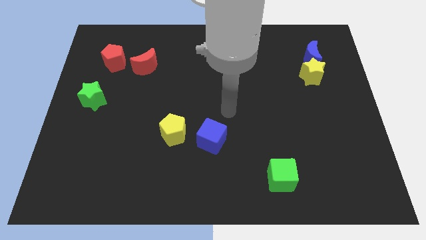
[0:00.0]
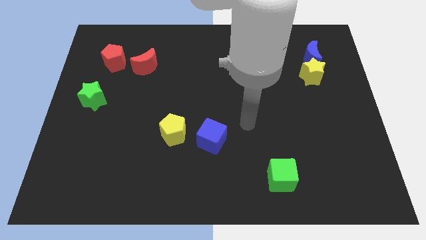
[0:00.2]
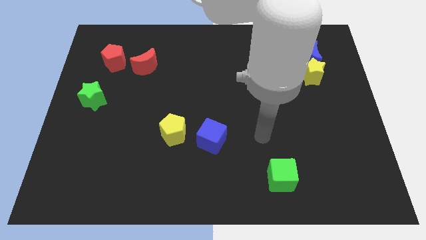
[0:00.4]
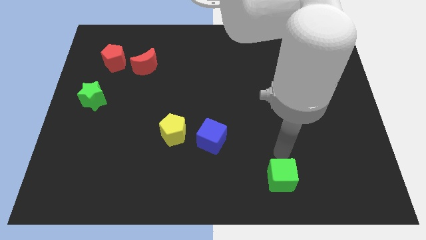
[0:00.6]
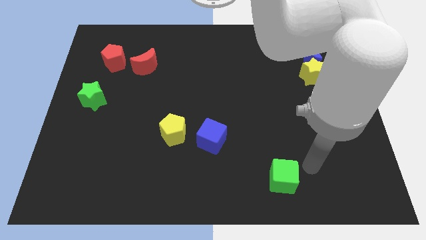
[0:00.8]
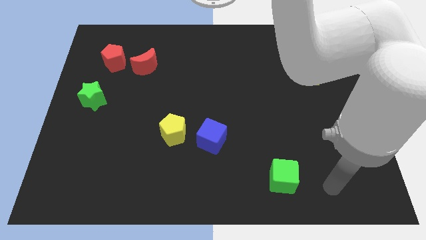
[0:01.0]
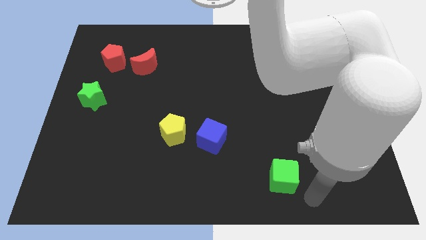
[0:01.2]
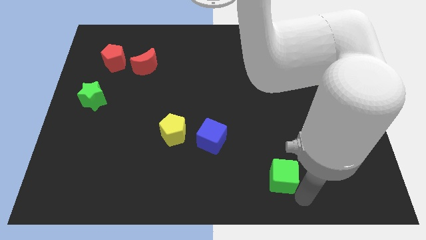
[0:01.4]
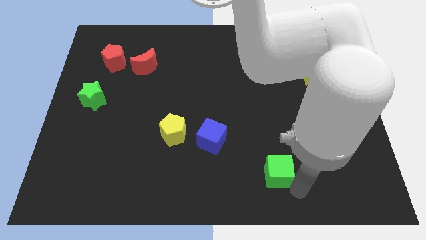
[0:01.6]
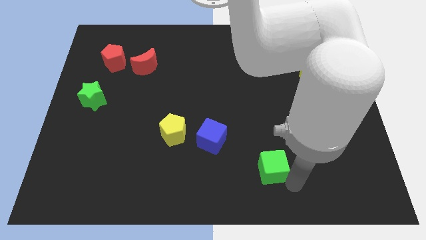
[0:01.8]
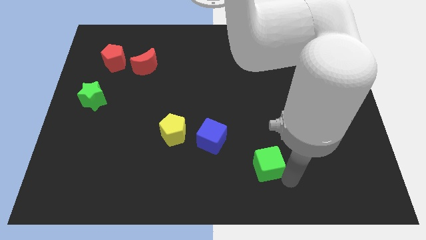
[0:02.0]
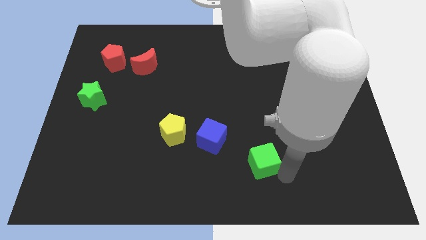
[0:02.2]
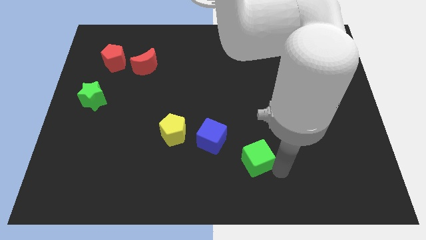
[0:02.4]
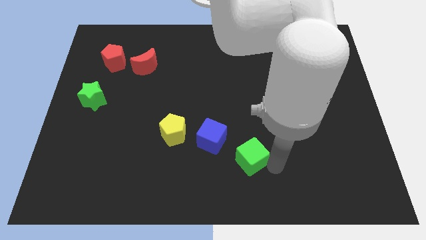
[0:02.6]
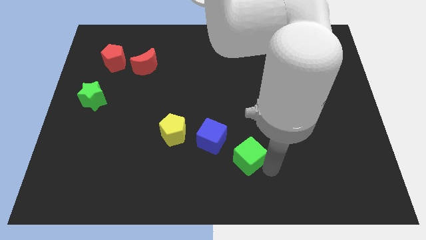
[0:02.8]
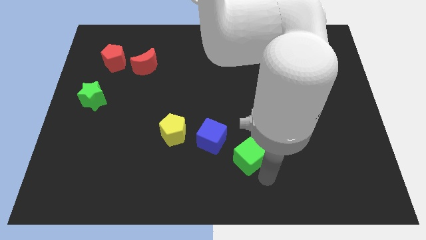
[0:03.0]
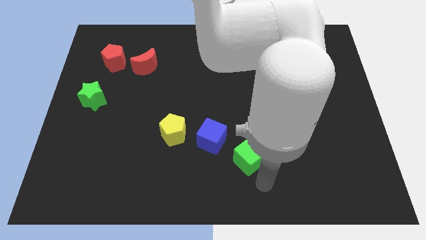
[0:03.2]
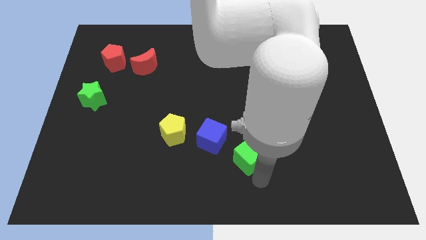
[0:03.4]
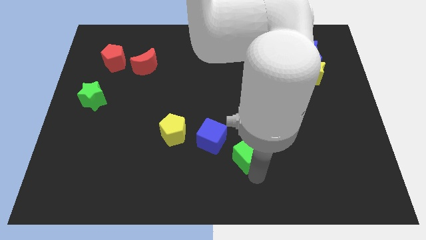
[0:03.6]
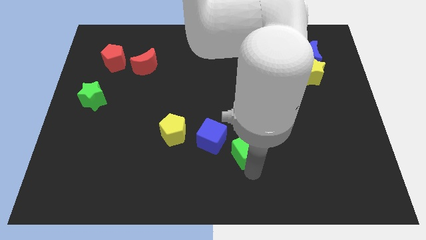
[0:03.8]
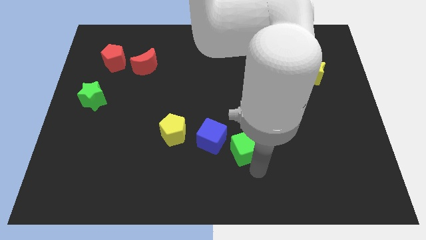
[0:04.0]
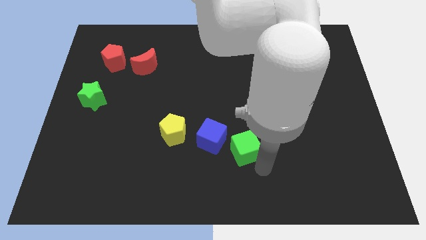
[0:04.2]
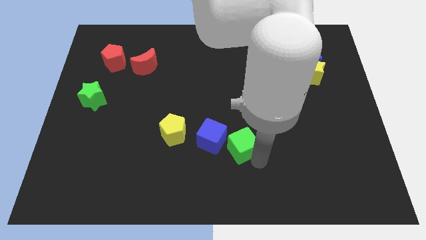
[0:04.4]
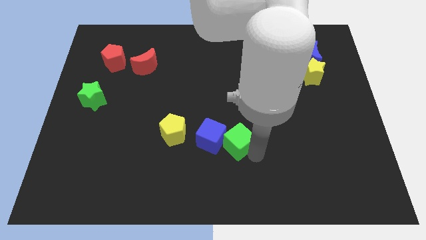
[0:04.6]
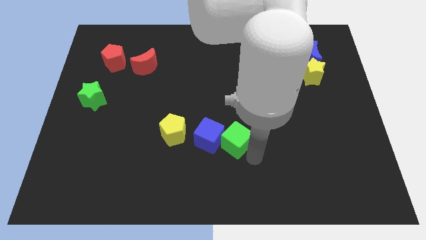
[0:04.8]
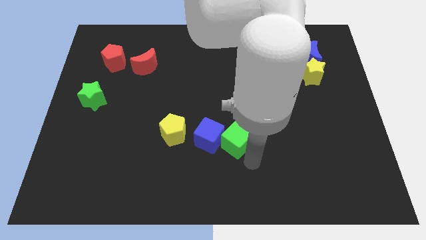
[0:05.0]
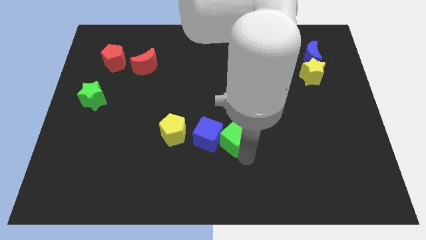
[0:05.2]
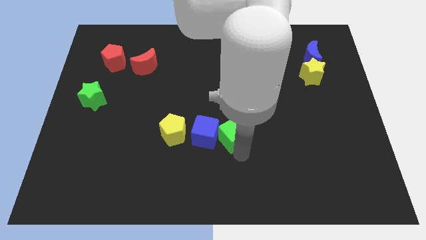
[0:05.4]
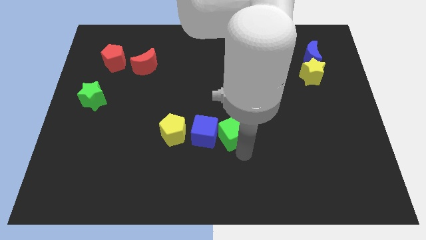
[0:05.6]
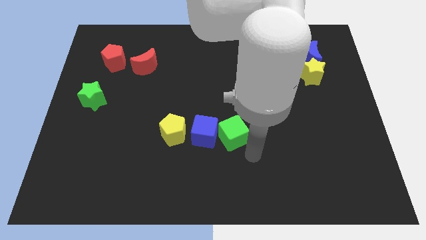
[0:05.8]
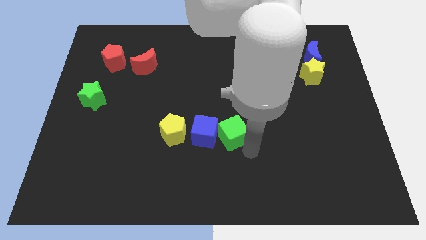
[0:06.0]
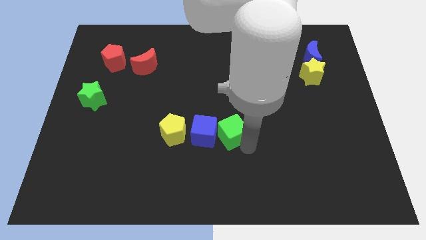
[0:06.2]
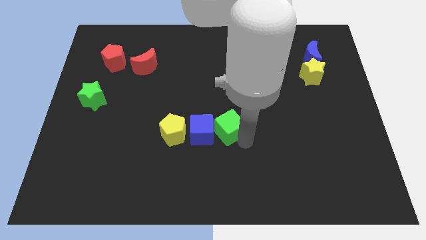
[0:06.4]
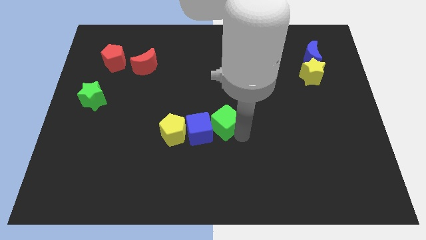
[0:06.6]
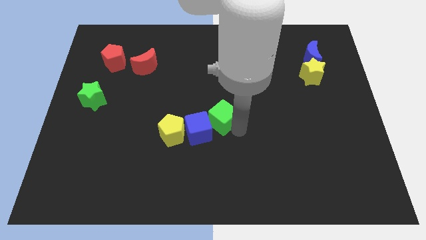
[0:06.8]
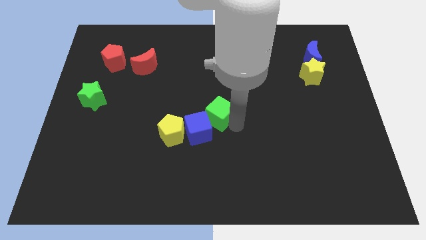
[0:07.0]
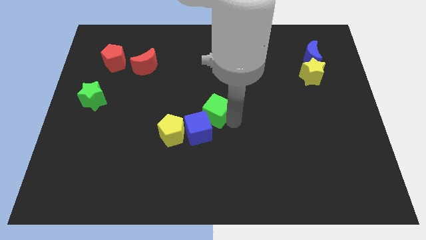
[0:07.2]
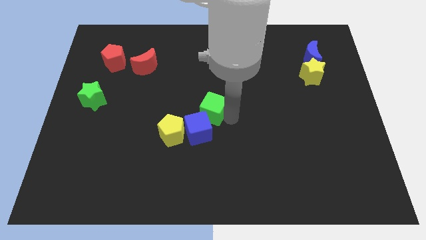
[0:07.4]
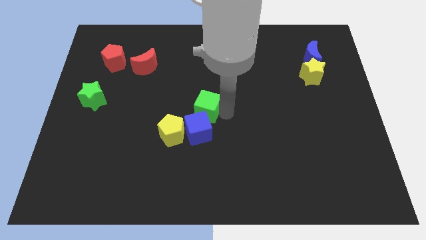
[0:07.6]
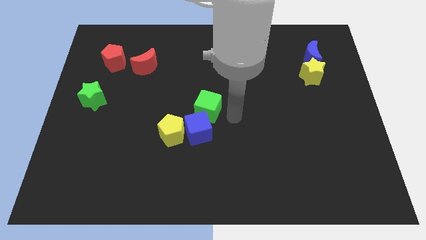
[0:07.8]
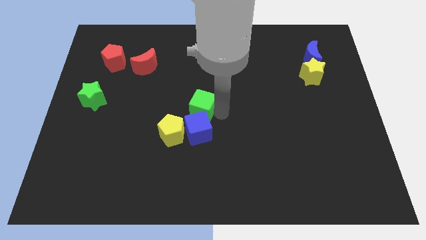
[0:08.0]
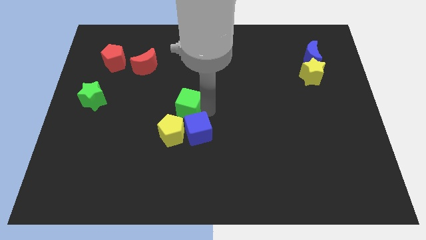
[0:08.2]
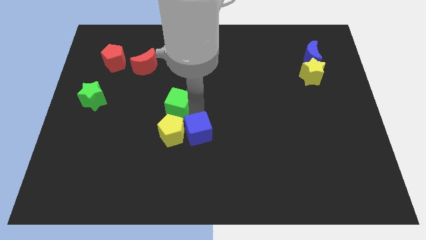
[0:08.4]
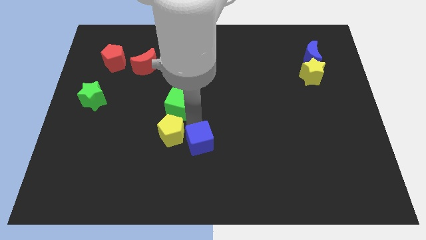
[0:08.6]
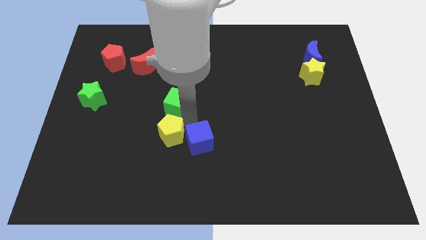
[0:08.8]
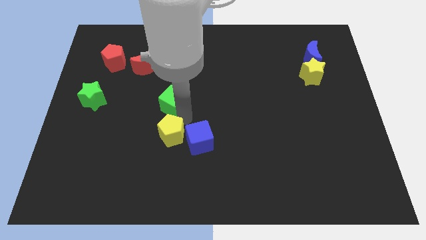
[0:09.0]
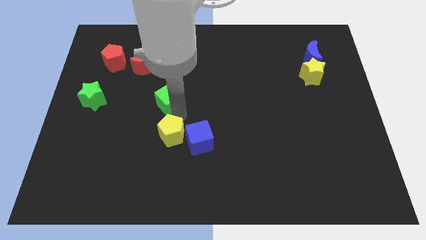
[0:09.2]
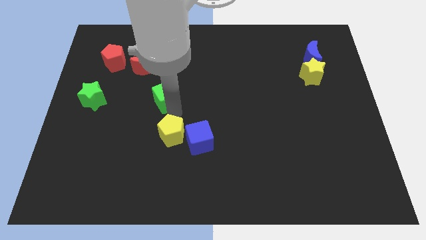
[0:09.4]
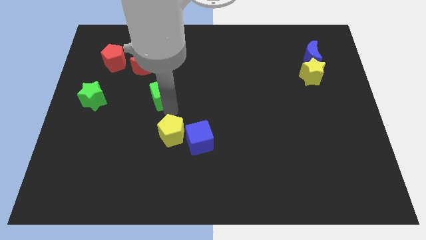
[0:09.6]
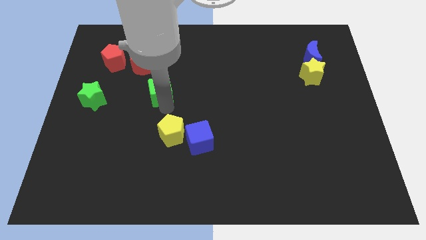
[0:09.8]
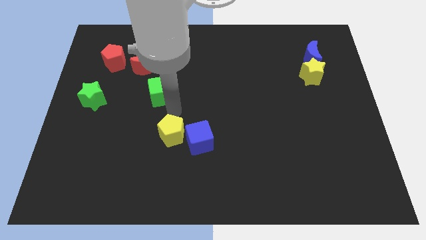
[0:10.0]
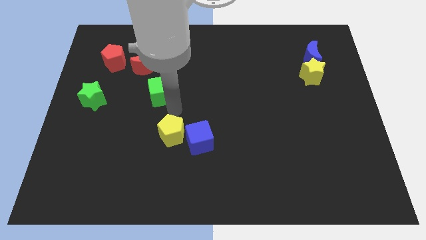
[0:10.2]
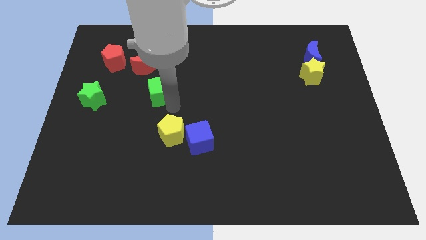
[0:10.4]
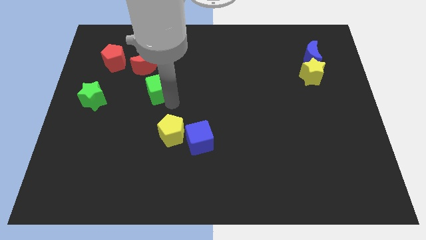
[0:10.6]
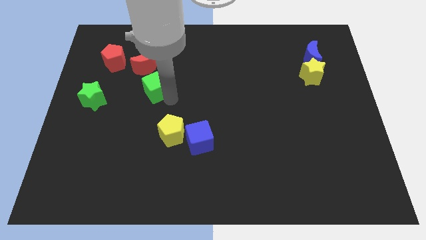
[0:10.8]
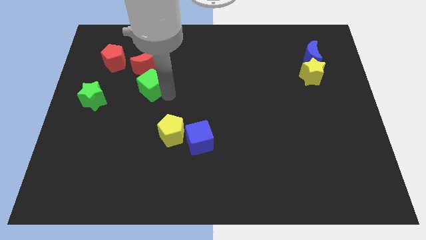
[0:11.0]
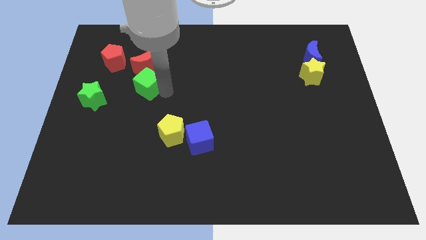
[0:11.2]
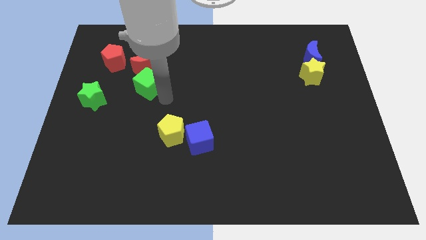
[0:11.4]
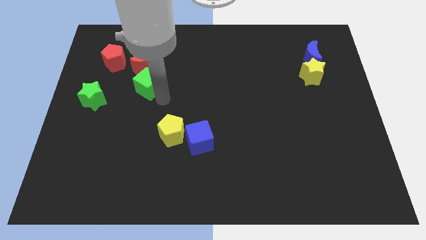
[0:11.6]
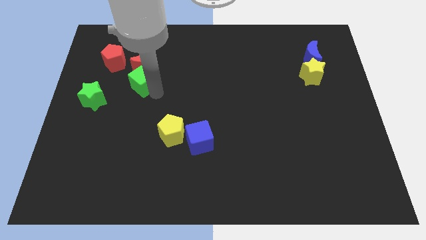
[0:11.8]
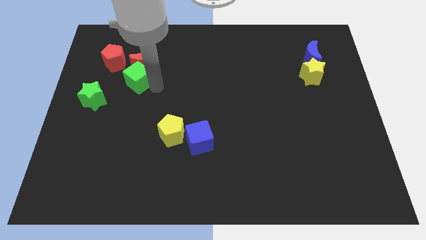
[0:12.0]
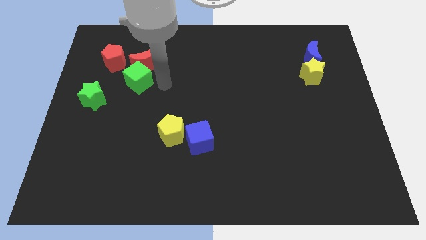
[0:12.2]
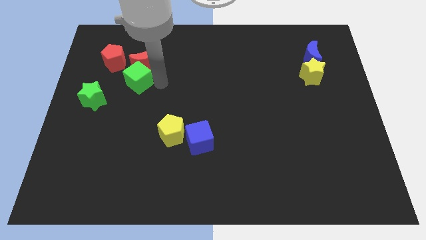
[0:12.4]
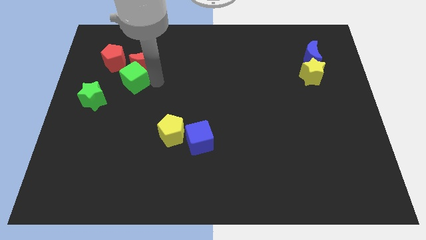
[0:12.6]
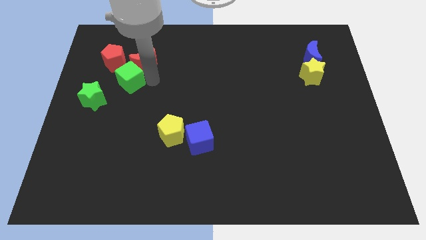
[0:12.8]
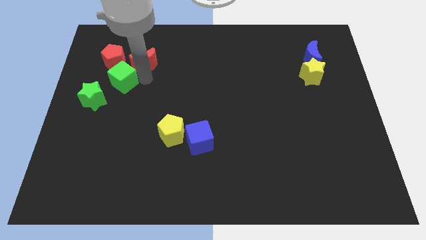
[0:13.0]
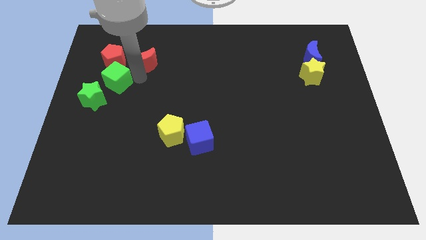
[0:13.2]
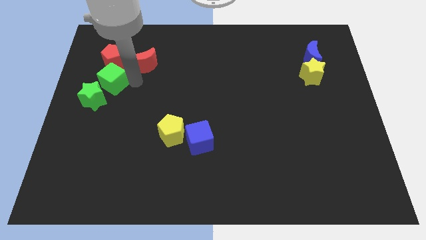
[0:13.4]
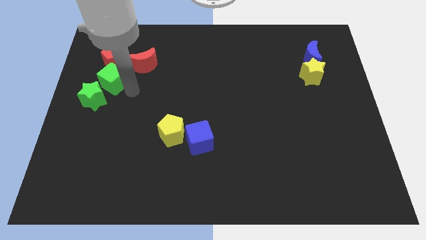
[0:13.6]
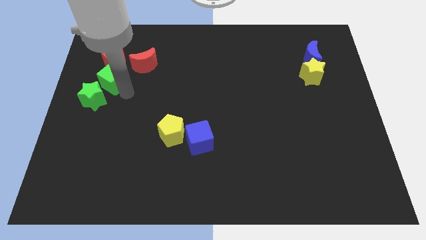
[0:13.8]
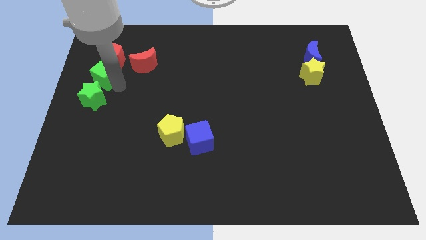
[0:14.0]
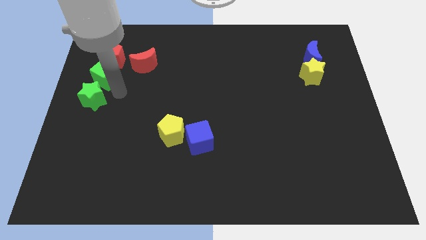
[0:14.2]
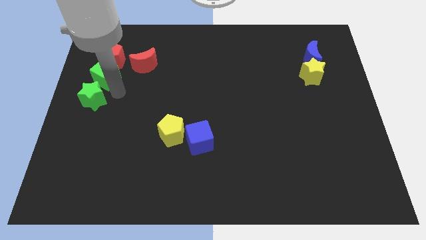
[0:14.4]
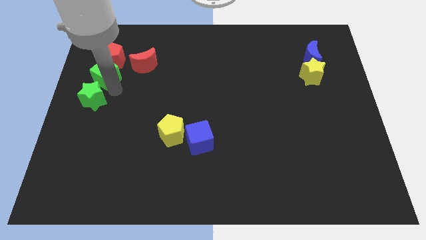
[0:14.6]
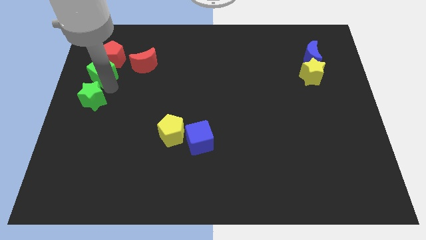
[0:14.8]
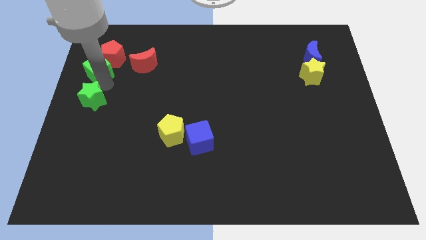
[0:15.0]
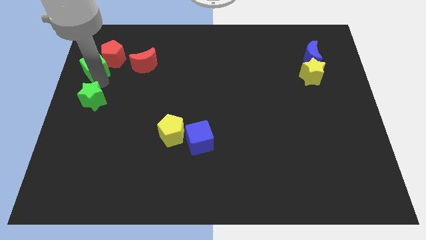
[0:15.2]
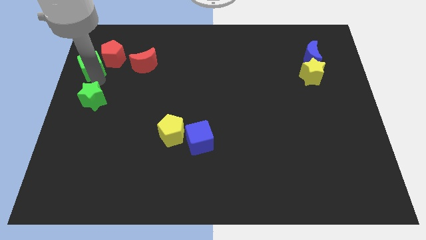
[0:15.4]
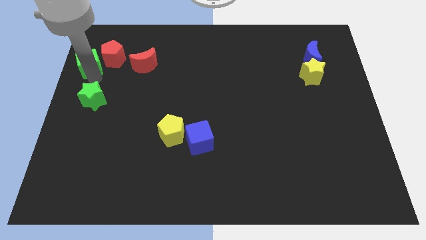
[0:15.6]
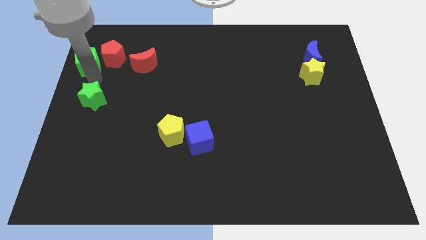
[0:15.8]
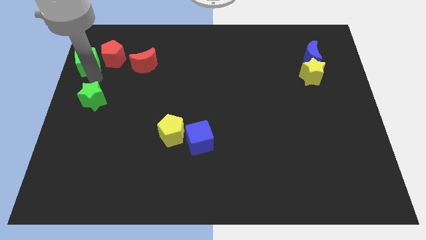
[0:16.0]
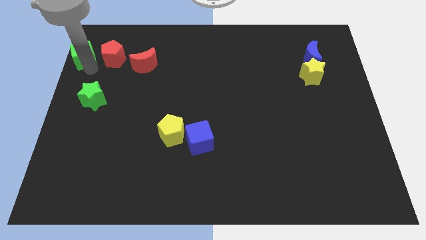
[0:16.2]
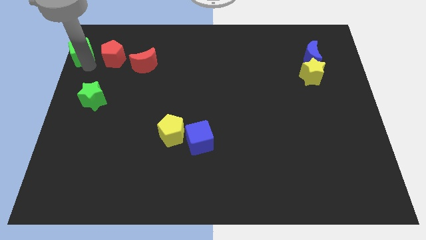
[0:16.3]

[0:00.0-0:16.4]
put the green cube to the top left corner
